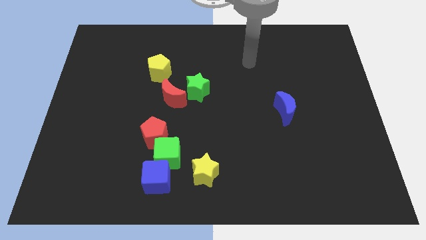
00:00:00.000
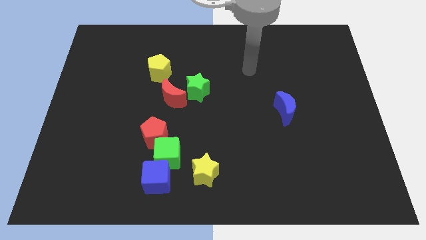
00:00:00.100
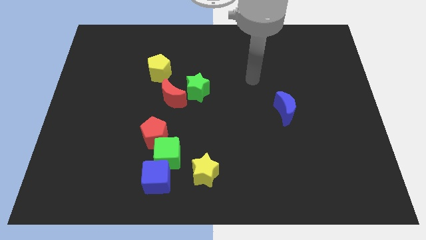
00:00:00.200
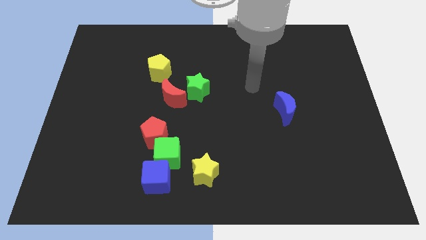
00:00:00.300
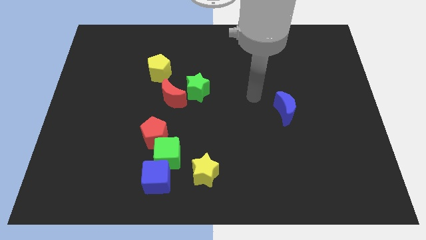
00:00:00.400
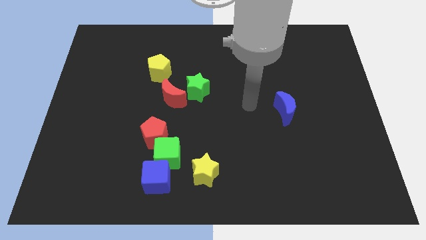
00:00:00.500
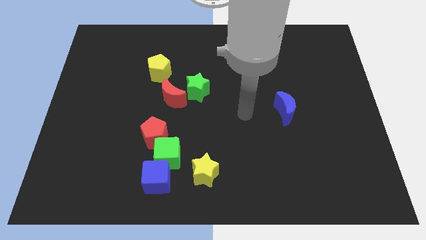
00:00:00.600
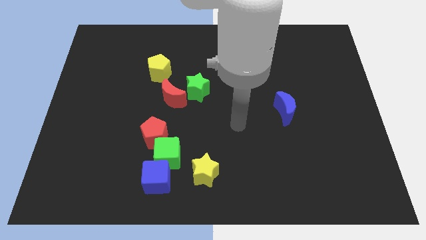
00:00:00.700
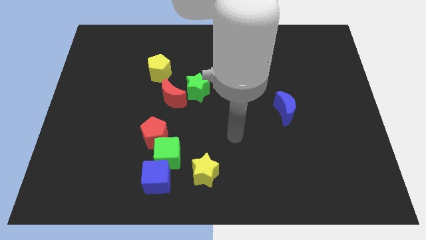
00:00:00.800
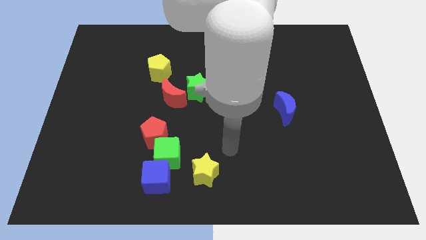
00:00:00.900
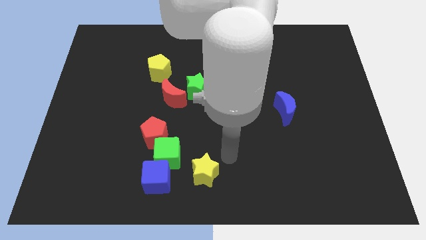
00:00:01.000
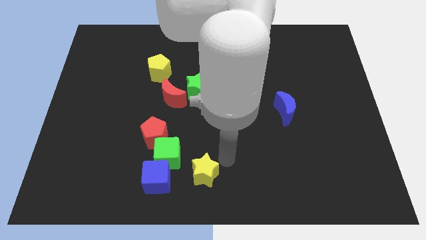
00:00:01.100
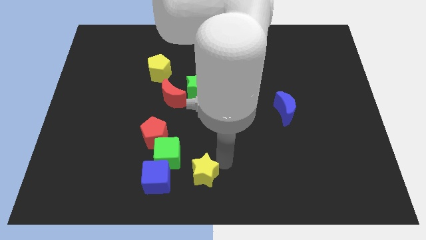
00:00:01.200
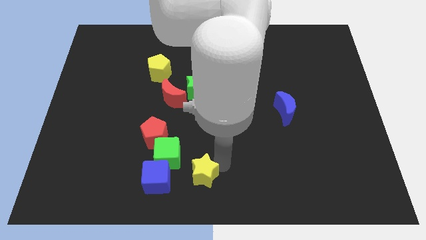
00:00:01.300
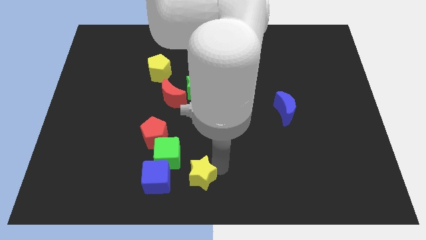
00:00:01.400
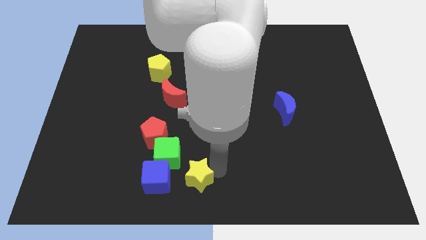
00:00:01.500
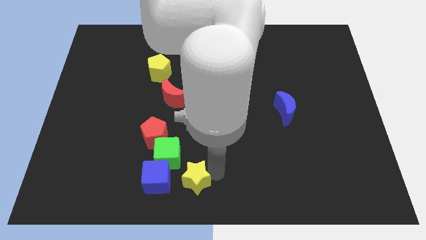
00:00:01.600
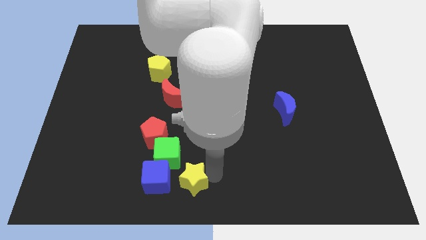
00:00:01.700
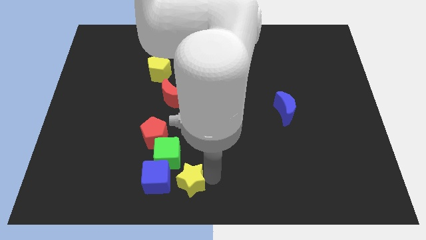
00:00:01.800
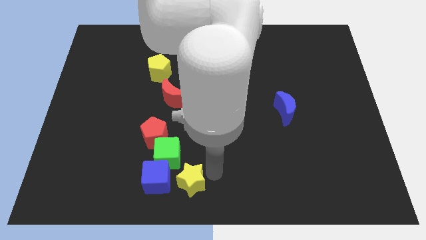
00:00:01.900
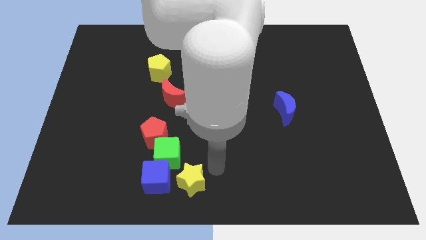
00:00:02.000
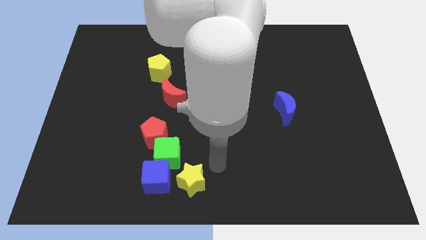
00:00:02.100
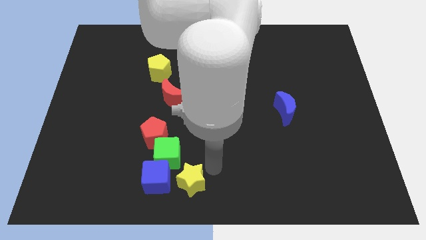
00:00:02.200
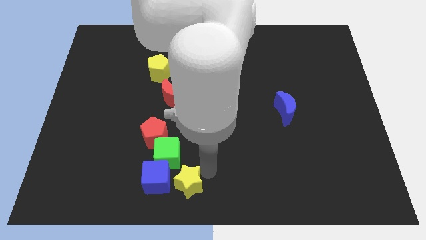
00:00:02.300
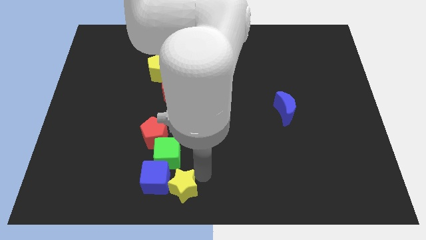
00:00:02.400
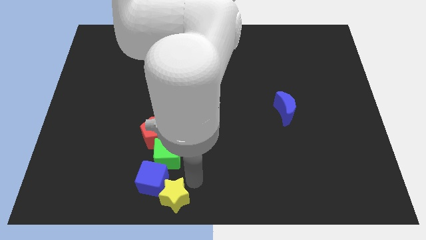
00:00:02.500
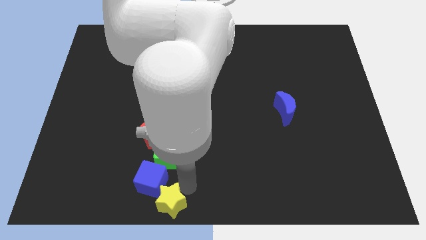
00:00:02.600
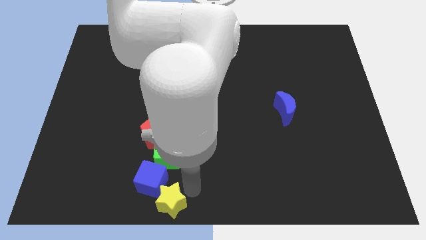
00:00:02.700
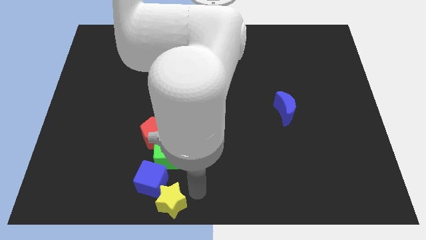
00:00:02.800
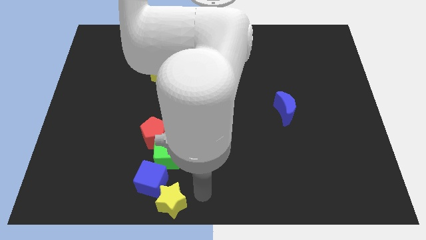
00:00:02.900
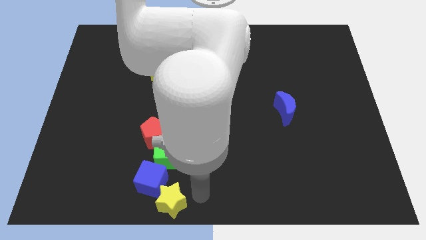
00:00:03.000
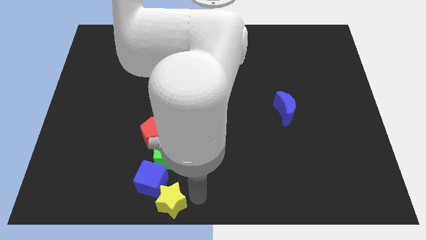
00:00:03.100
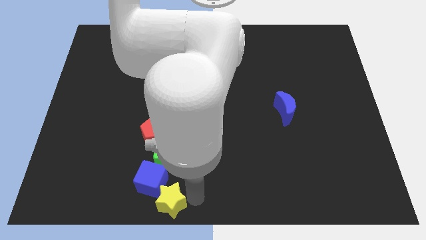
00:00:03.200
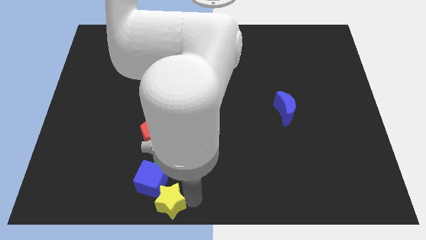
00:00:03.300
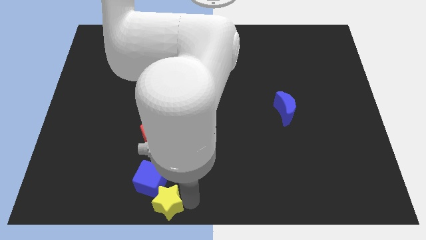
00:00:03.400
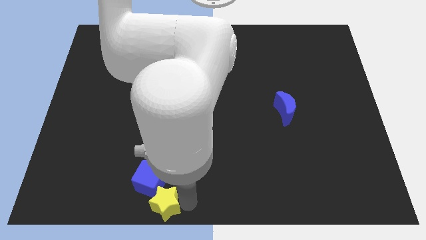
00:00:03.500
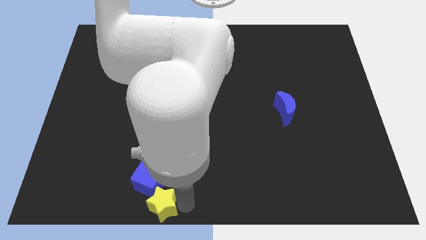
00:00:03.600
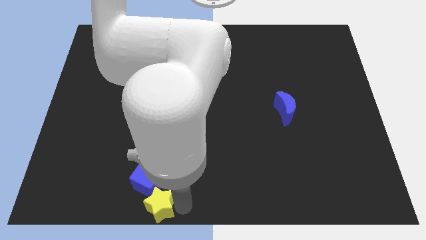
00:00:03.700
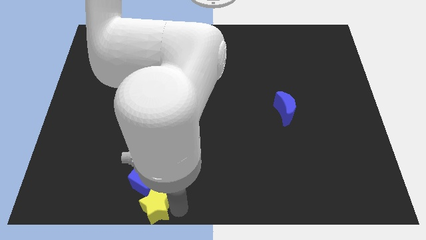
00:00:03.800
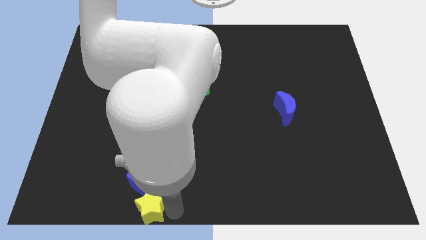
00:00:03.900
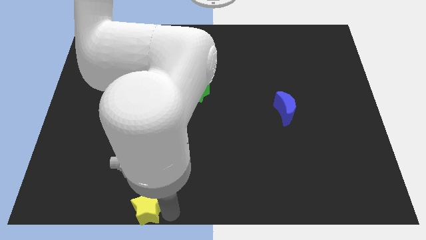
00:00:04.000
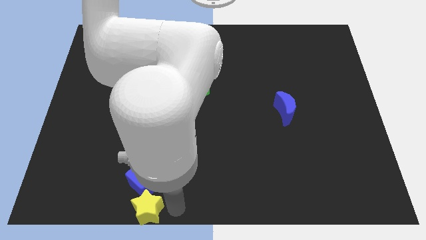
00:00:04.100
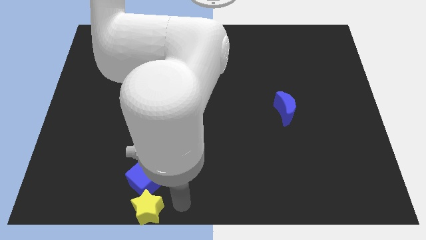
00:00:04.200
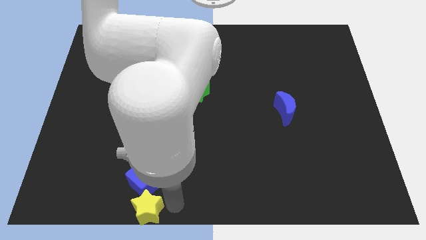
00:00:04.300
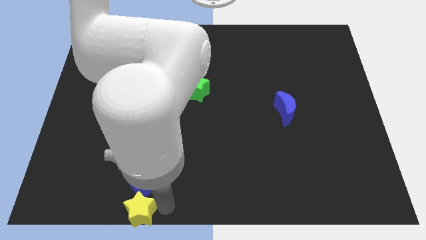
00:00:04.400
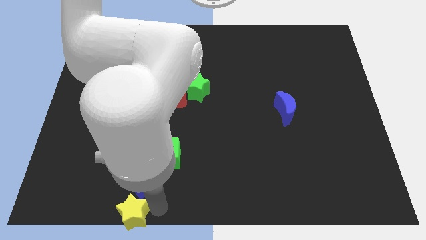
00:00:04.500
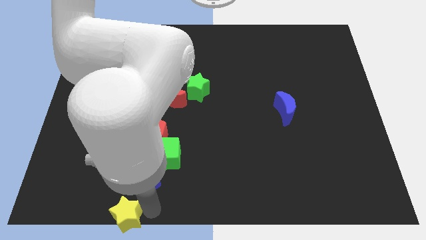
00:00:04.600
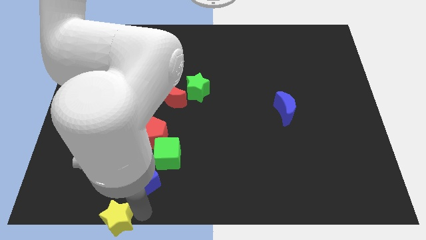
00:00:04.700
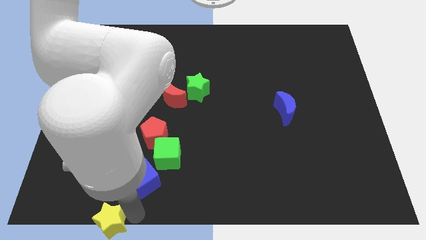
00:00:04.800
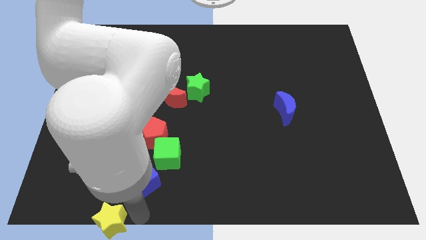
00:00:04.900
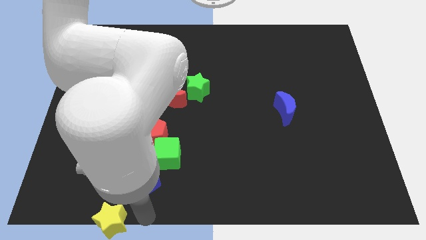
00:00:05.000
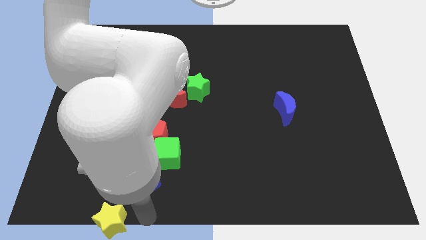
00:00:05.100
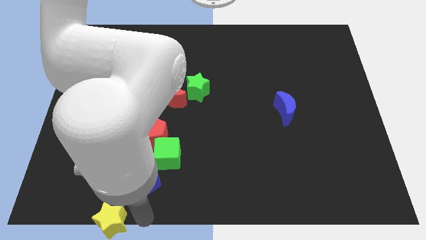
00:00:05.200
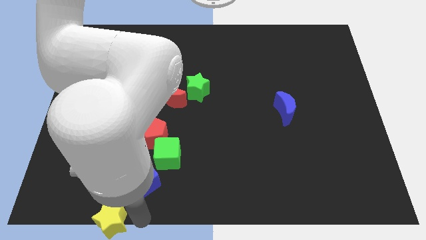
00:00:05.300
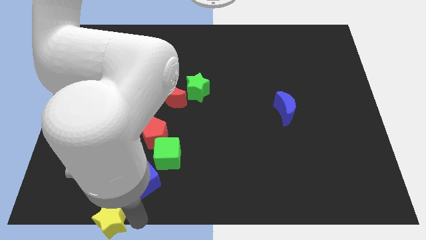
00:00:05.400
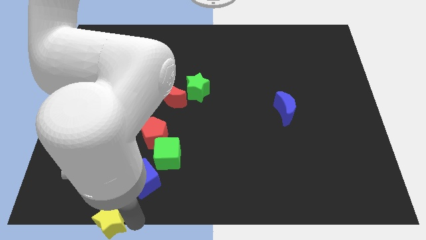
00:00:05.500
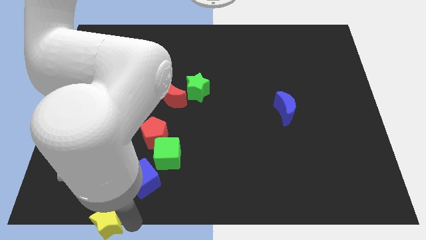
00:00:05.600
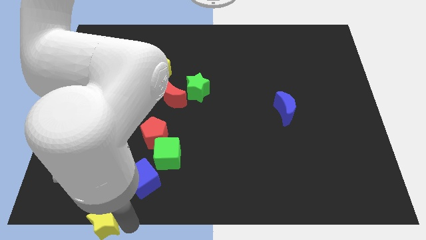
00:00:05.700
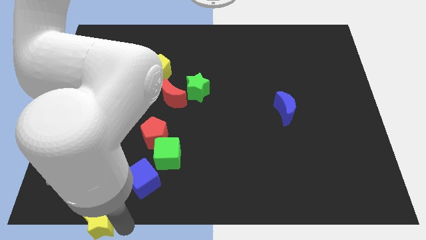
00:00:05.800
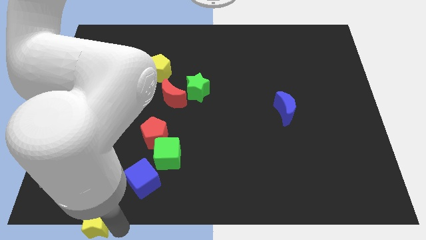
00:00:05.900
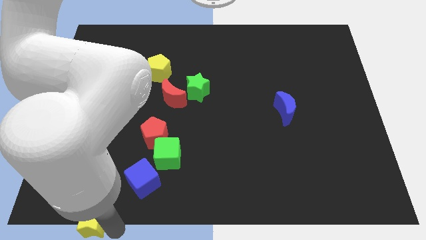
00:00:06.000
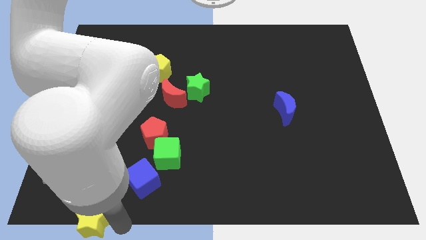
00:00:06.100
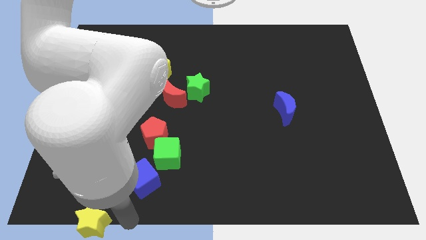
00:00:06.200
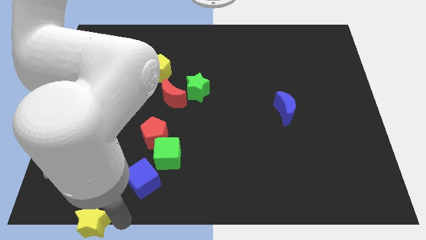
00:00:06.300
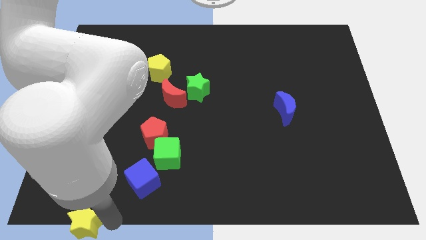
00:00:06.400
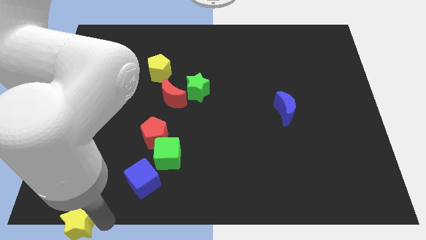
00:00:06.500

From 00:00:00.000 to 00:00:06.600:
move the yellow star to the bottom left of the board

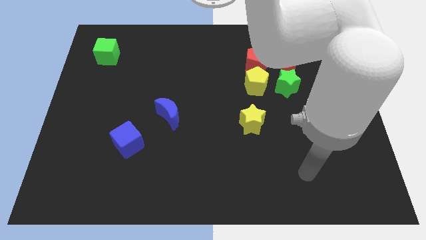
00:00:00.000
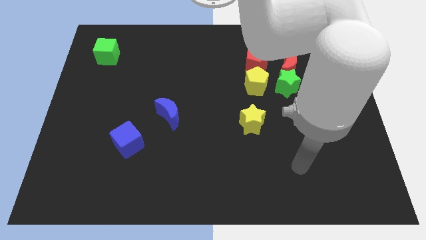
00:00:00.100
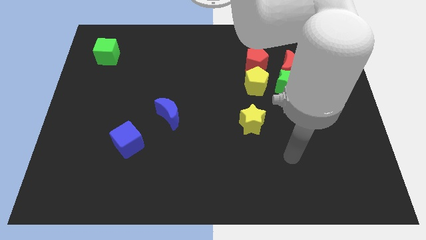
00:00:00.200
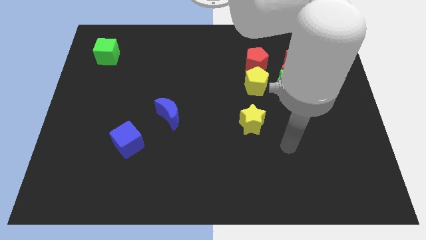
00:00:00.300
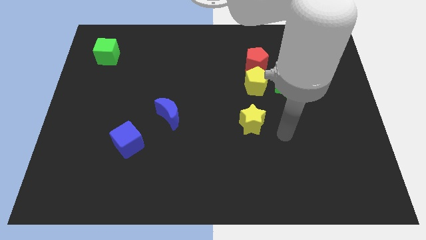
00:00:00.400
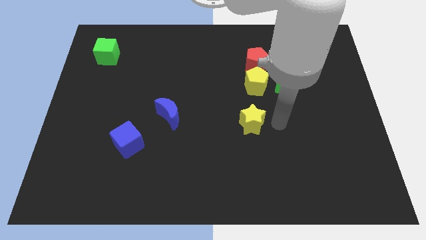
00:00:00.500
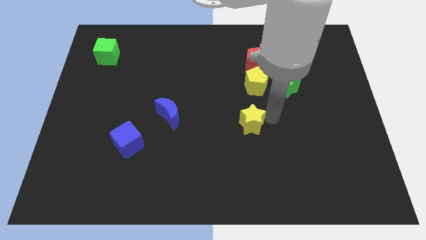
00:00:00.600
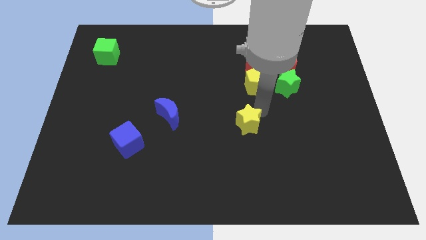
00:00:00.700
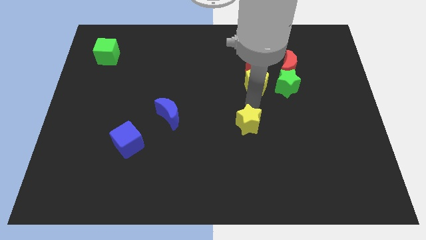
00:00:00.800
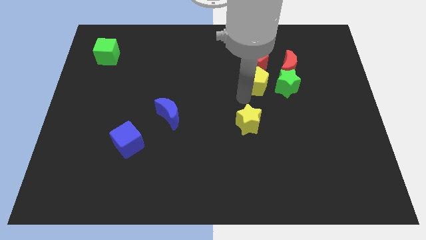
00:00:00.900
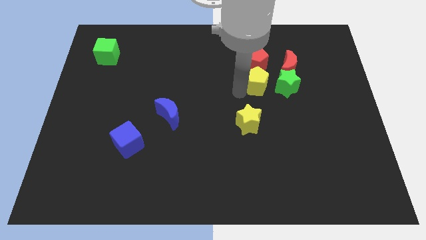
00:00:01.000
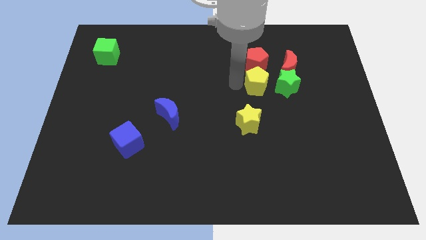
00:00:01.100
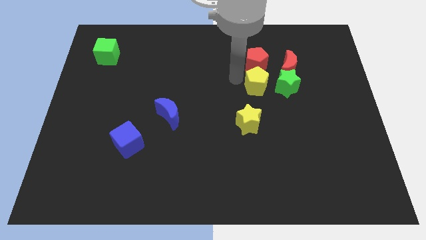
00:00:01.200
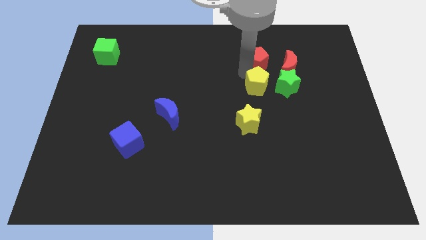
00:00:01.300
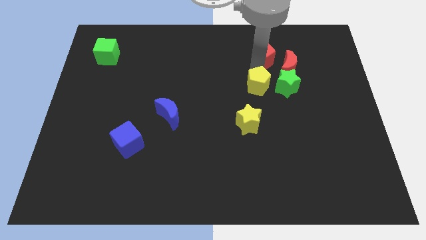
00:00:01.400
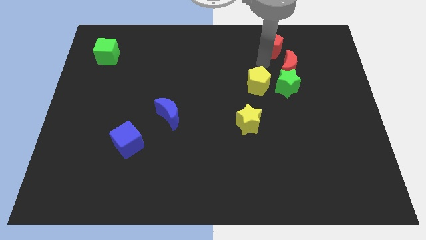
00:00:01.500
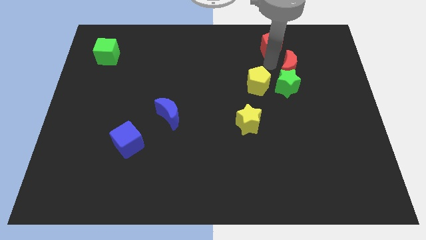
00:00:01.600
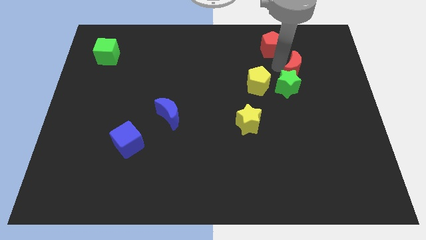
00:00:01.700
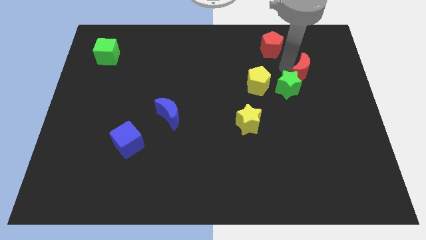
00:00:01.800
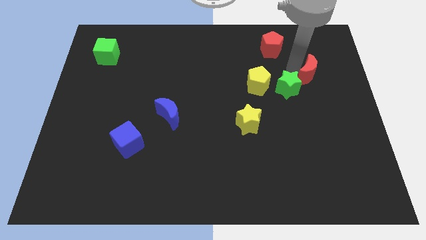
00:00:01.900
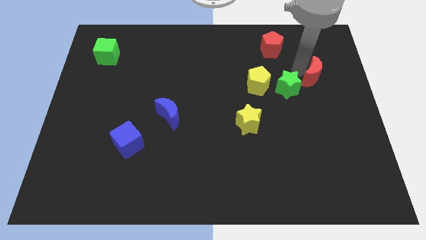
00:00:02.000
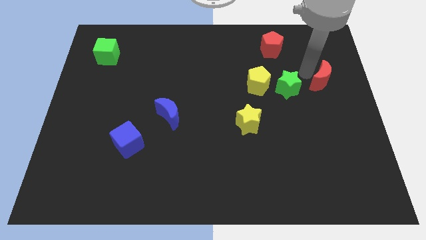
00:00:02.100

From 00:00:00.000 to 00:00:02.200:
put the red moon to the center right
